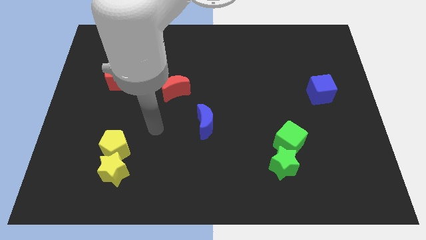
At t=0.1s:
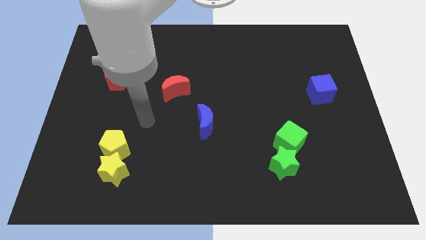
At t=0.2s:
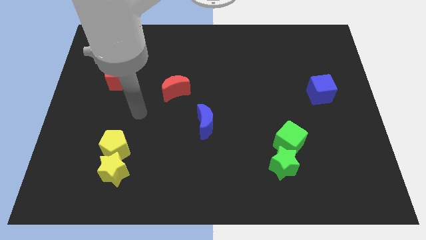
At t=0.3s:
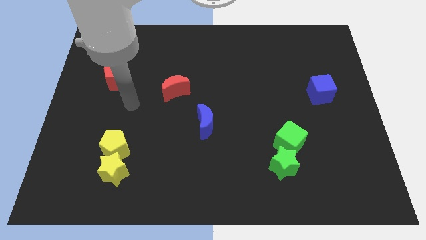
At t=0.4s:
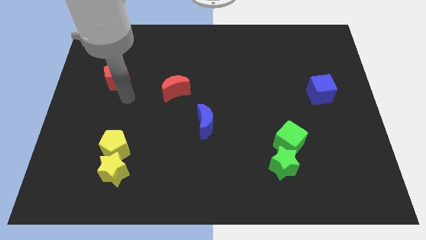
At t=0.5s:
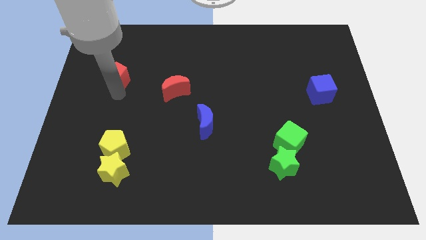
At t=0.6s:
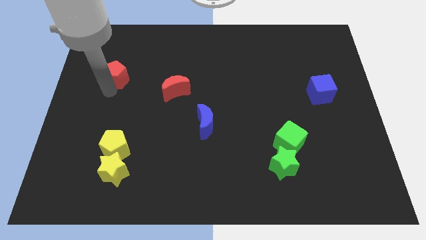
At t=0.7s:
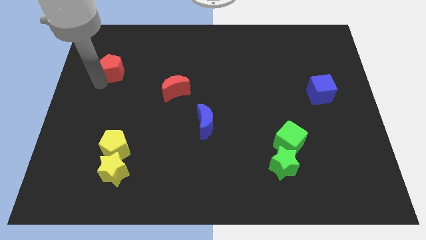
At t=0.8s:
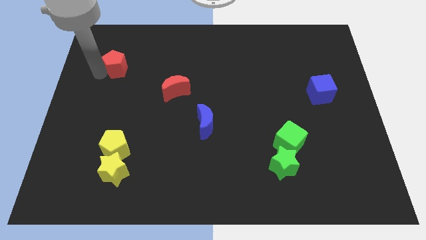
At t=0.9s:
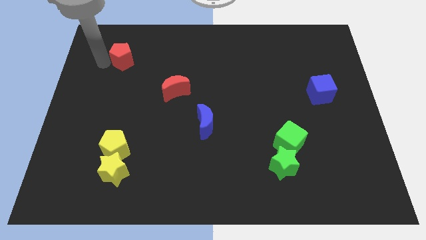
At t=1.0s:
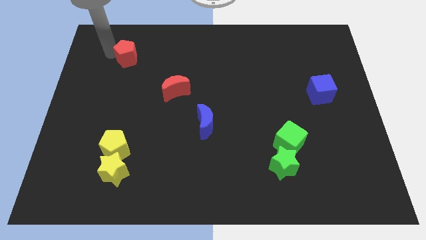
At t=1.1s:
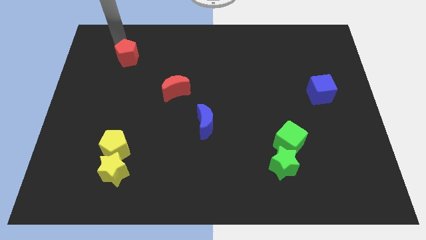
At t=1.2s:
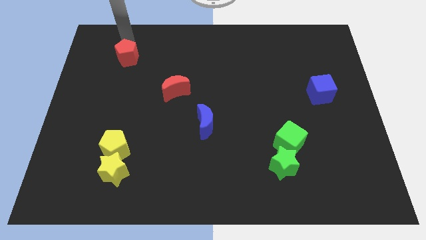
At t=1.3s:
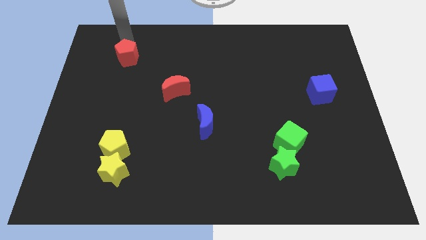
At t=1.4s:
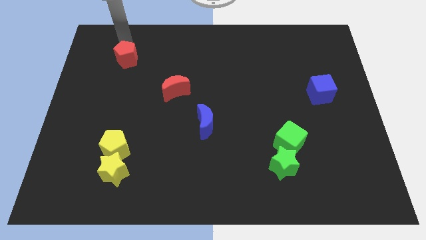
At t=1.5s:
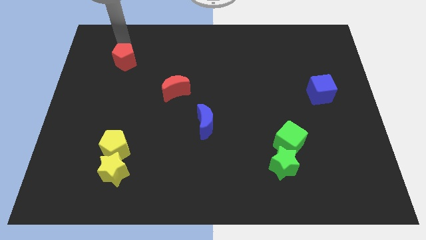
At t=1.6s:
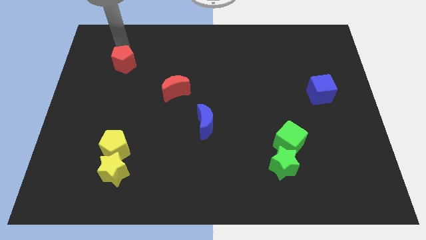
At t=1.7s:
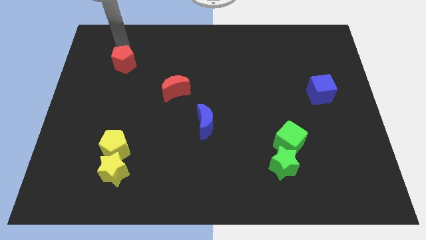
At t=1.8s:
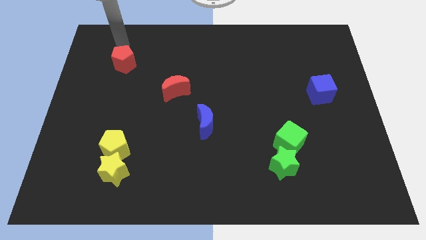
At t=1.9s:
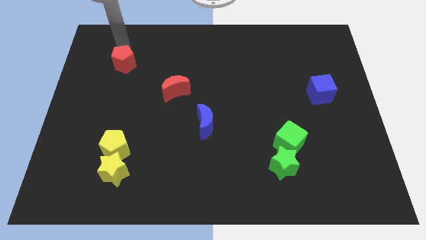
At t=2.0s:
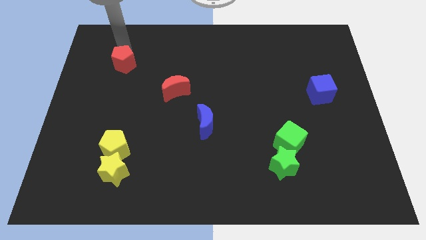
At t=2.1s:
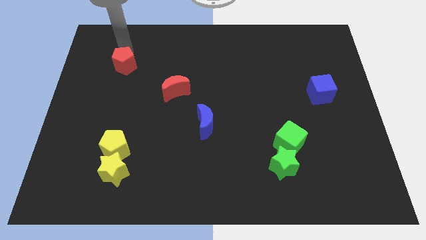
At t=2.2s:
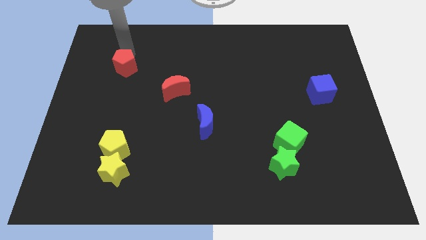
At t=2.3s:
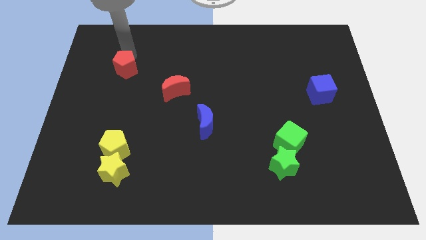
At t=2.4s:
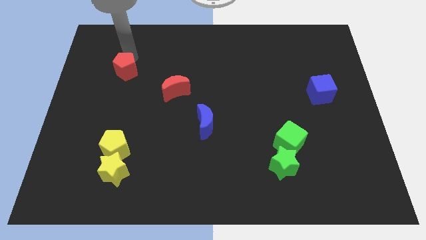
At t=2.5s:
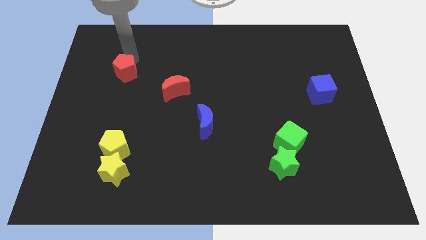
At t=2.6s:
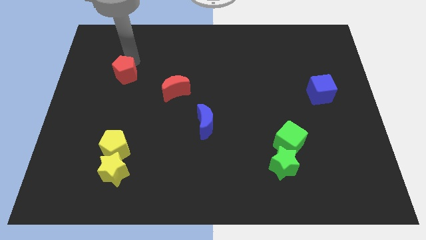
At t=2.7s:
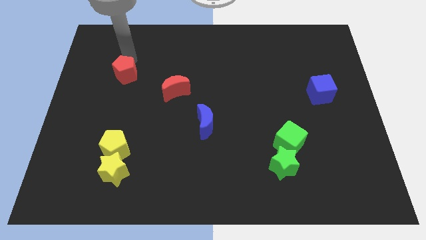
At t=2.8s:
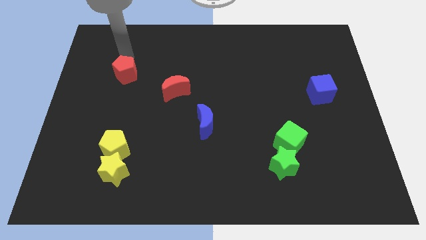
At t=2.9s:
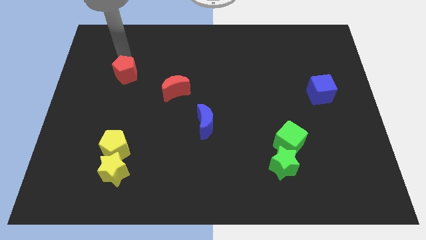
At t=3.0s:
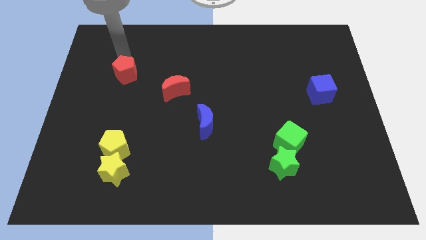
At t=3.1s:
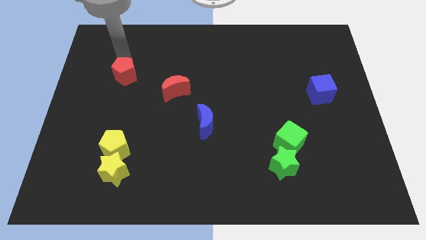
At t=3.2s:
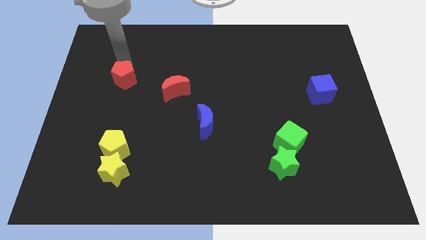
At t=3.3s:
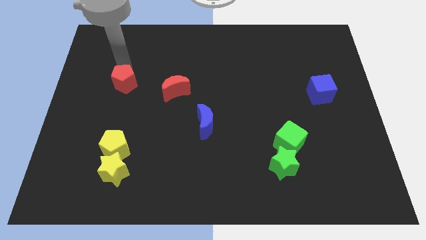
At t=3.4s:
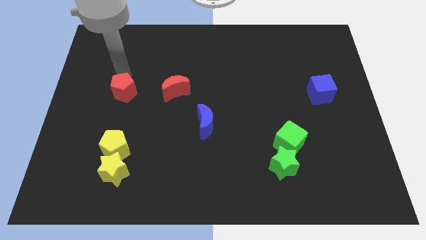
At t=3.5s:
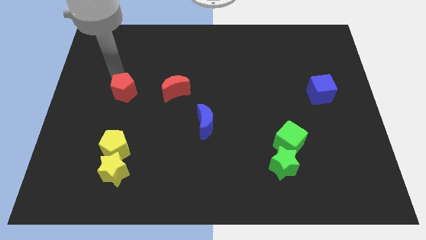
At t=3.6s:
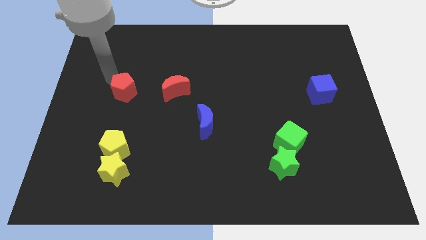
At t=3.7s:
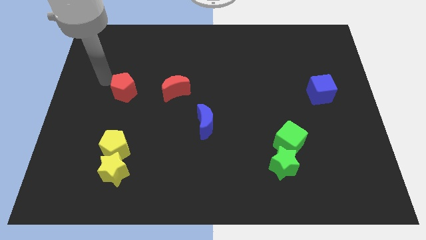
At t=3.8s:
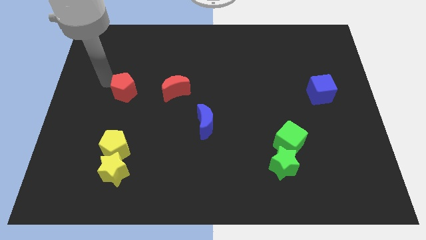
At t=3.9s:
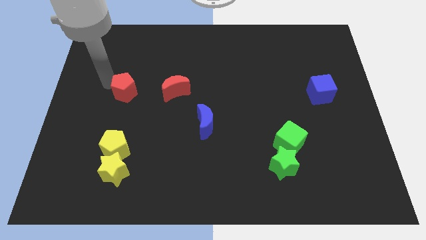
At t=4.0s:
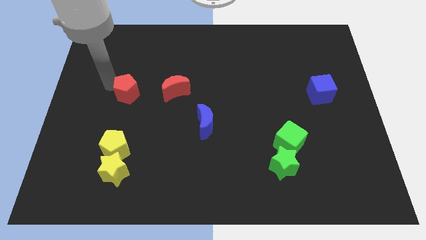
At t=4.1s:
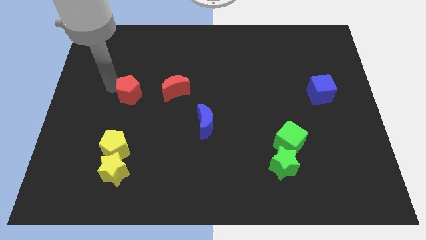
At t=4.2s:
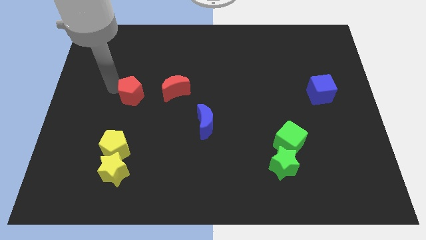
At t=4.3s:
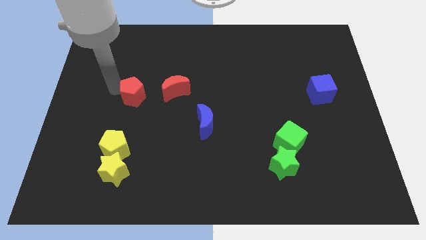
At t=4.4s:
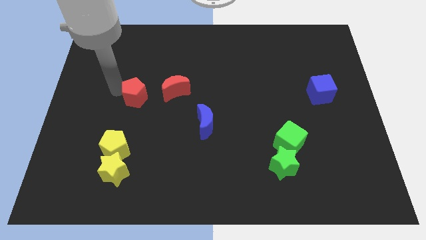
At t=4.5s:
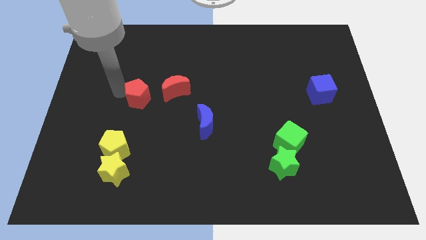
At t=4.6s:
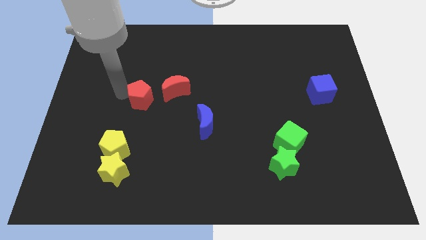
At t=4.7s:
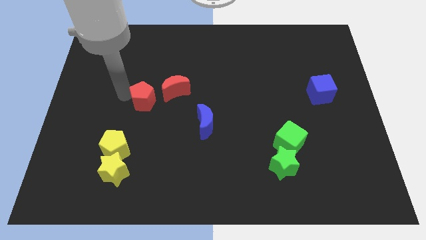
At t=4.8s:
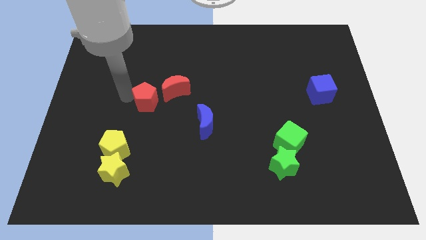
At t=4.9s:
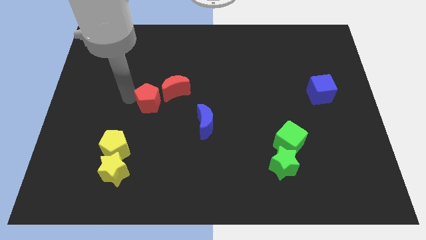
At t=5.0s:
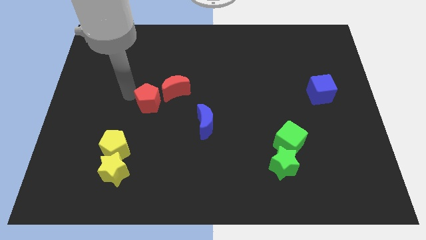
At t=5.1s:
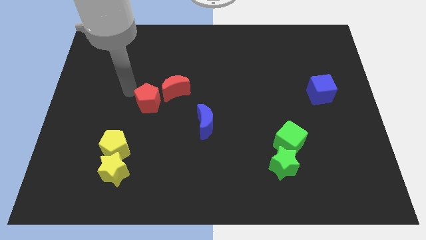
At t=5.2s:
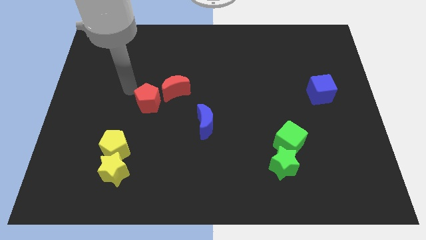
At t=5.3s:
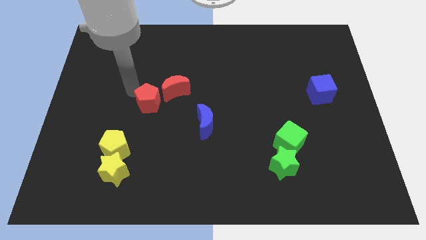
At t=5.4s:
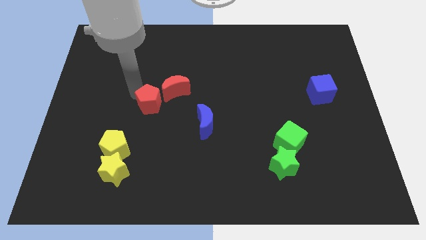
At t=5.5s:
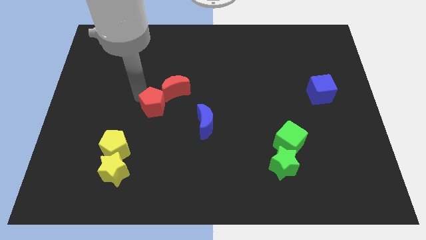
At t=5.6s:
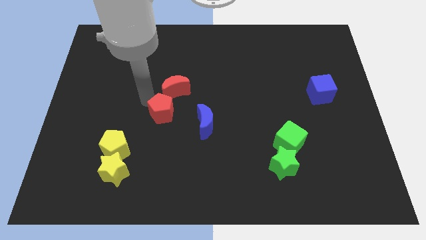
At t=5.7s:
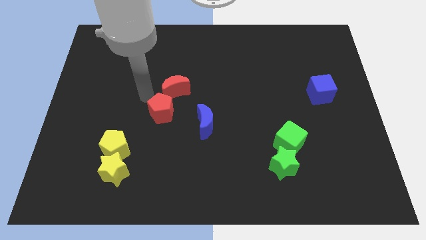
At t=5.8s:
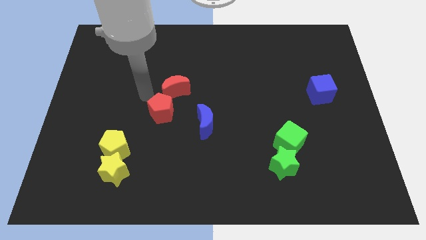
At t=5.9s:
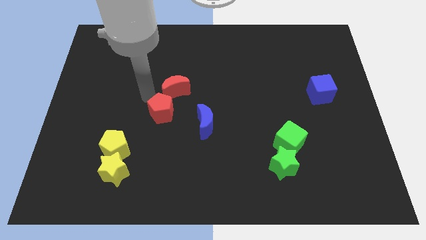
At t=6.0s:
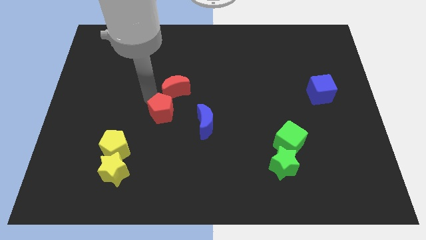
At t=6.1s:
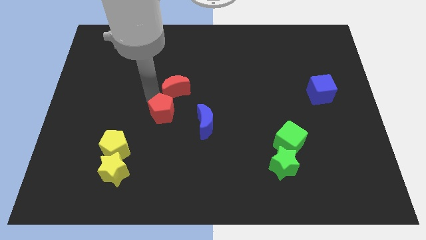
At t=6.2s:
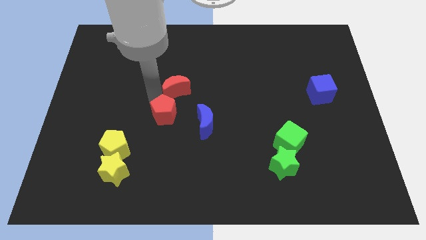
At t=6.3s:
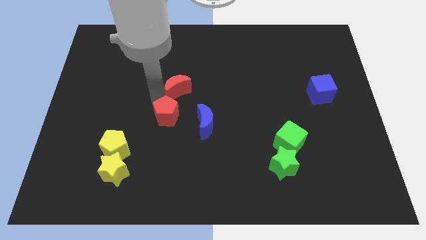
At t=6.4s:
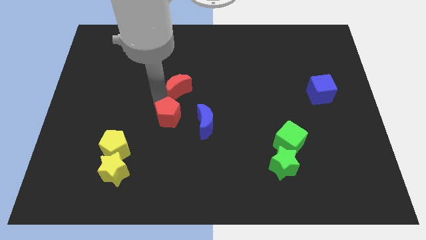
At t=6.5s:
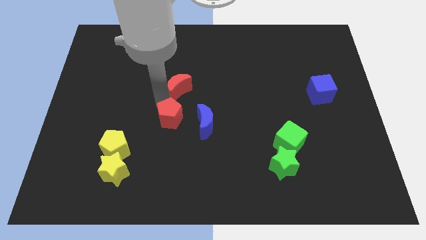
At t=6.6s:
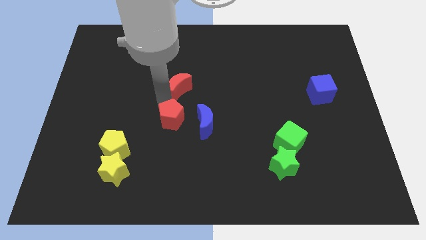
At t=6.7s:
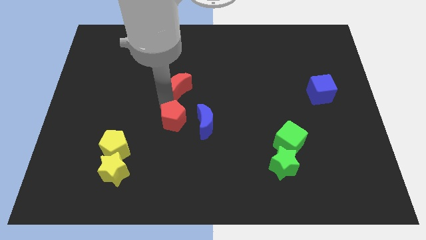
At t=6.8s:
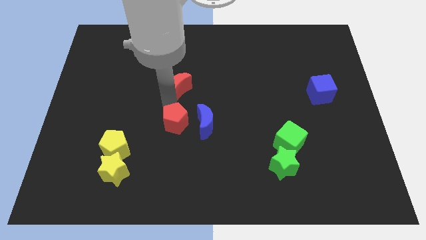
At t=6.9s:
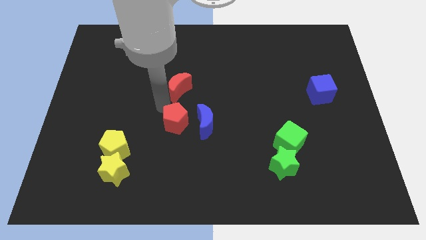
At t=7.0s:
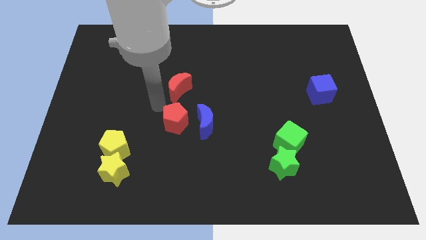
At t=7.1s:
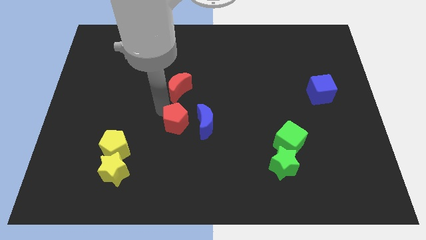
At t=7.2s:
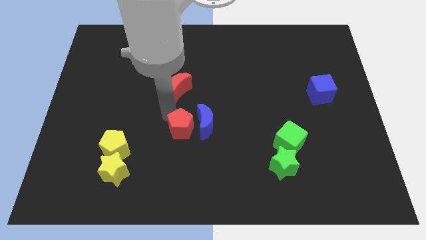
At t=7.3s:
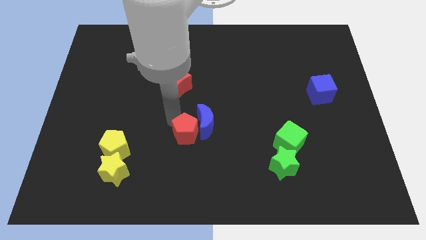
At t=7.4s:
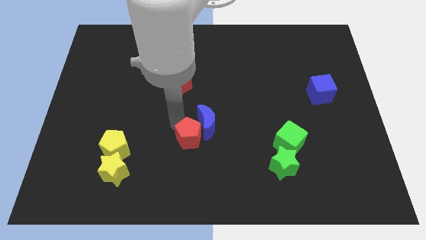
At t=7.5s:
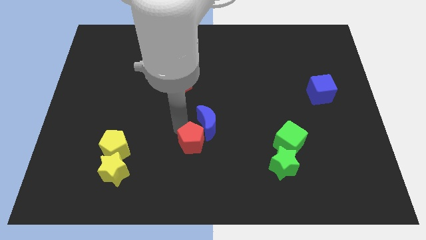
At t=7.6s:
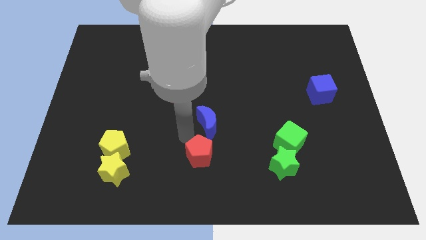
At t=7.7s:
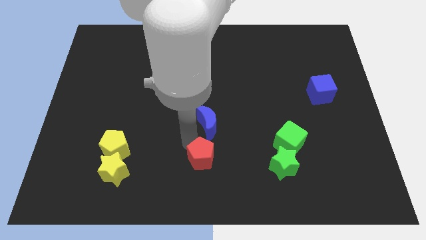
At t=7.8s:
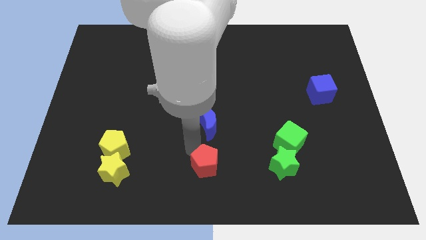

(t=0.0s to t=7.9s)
slide the red pentagon left of the green star

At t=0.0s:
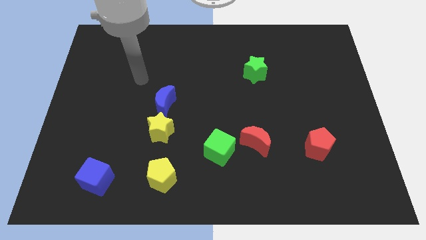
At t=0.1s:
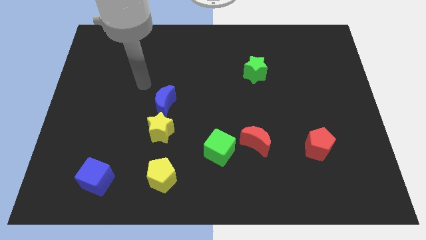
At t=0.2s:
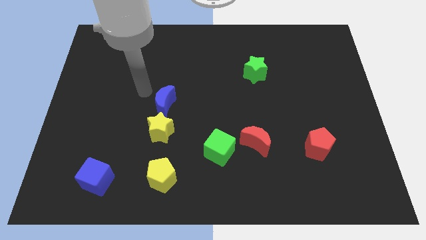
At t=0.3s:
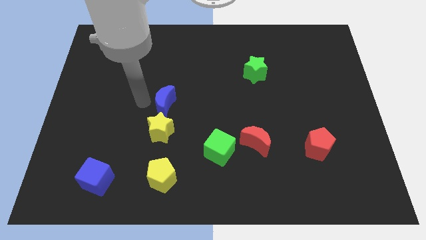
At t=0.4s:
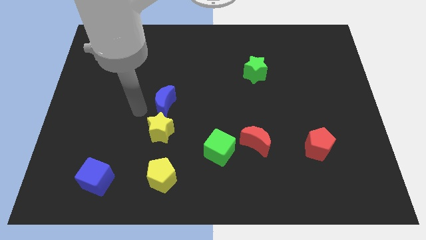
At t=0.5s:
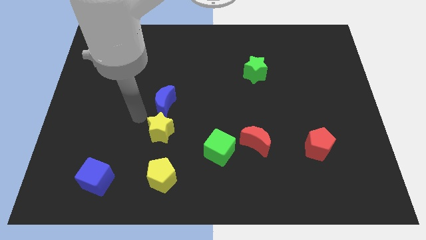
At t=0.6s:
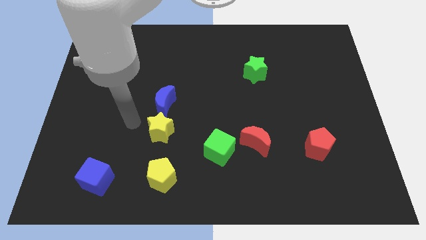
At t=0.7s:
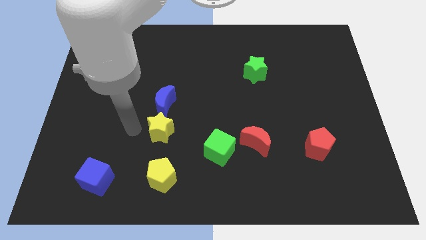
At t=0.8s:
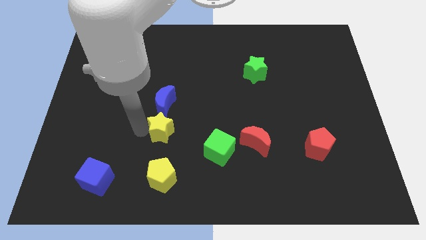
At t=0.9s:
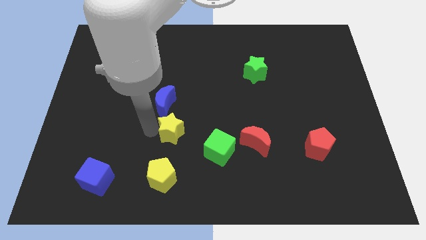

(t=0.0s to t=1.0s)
push the yellow star to the top left of the green cube
